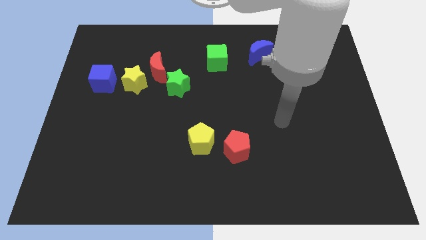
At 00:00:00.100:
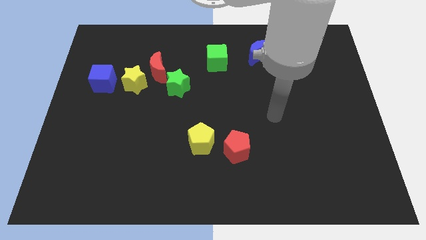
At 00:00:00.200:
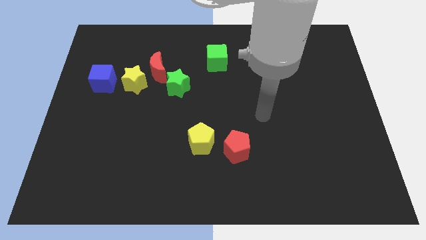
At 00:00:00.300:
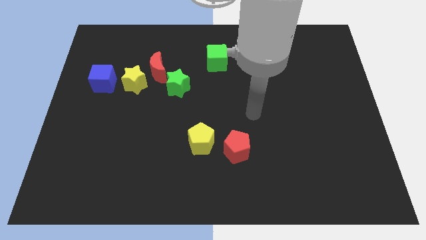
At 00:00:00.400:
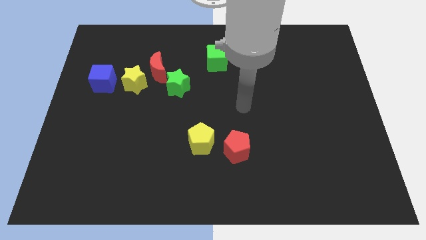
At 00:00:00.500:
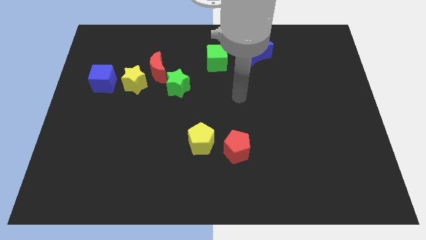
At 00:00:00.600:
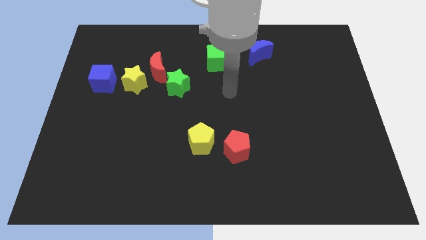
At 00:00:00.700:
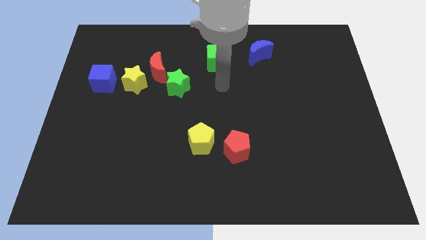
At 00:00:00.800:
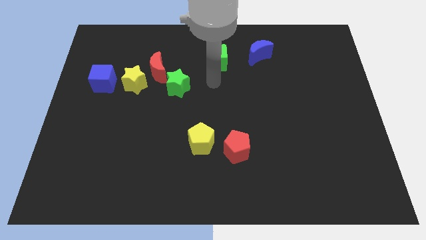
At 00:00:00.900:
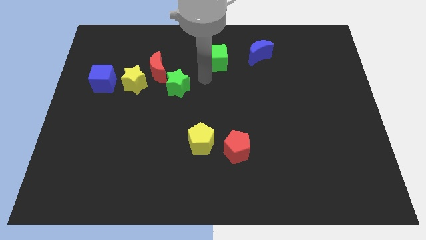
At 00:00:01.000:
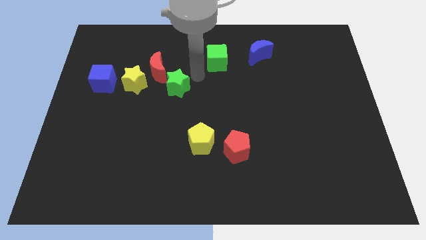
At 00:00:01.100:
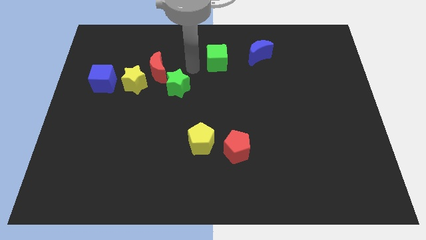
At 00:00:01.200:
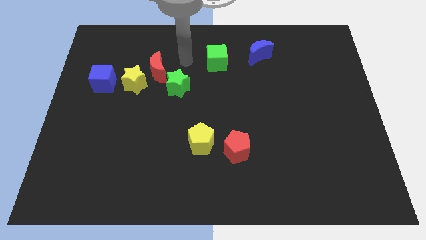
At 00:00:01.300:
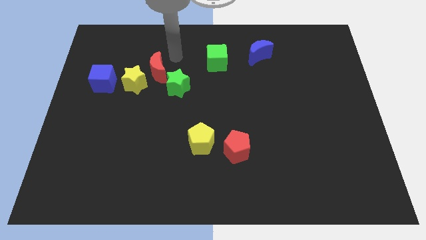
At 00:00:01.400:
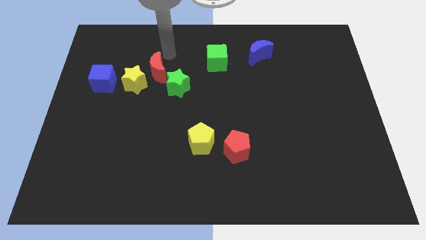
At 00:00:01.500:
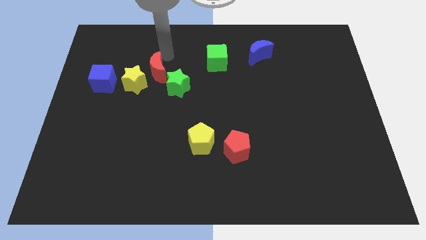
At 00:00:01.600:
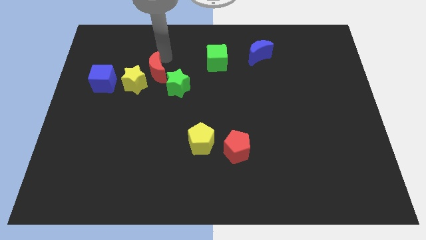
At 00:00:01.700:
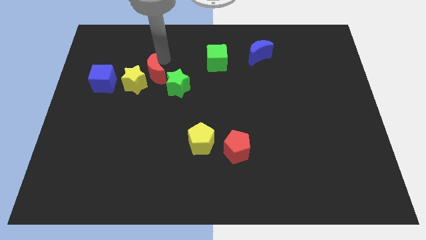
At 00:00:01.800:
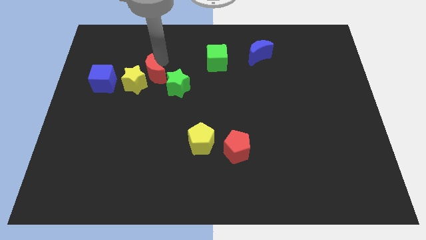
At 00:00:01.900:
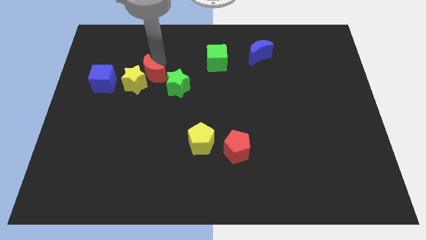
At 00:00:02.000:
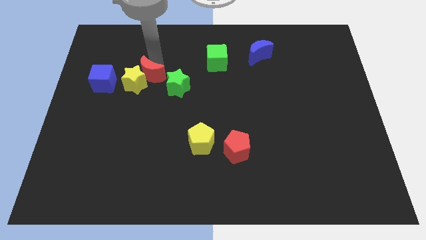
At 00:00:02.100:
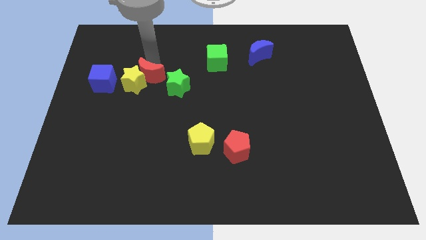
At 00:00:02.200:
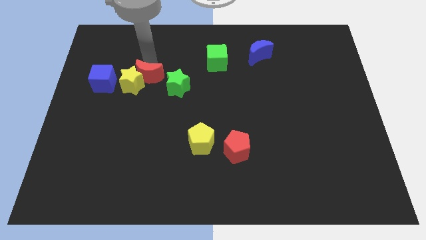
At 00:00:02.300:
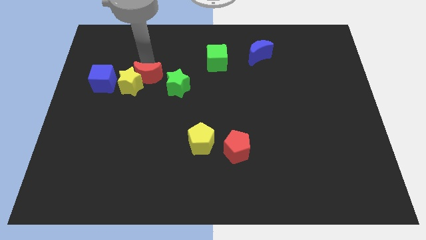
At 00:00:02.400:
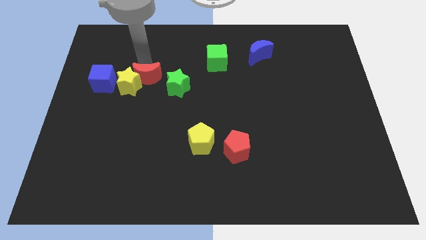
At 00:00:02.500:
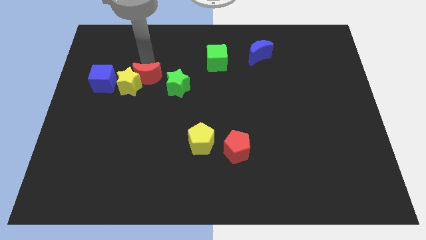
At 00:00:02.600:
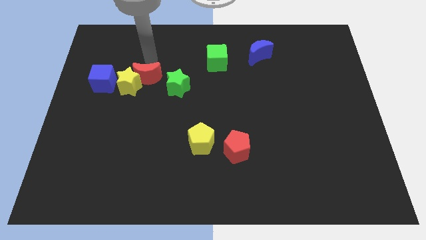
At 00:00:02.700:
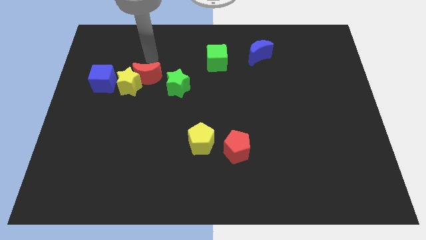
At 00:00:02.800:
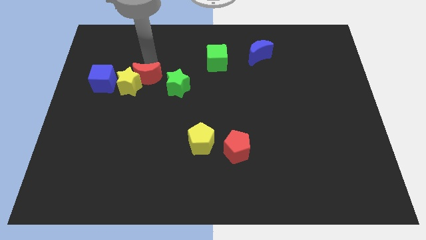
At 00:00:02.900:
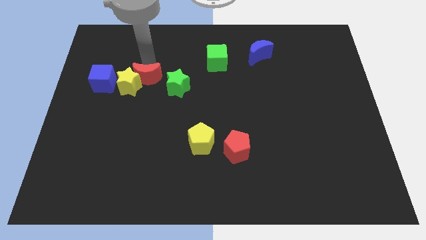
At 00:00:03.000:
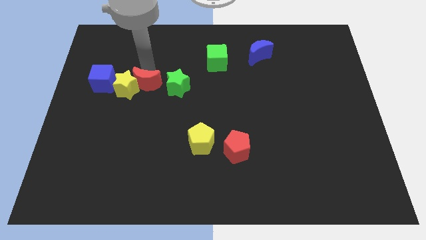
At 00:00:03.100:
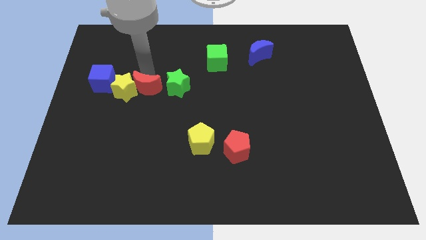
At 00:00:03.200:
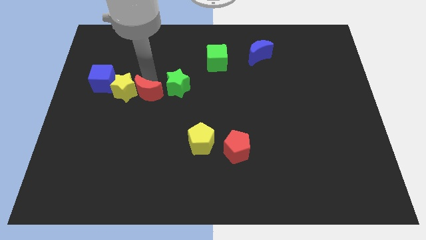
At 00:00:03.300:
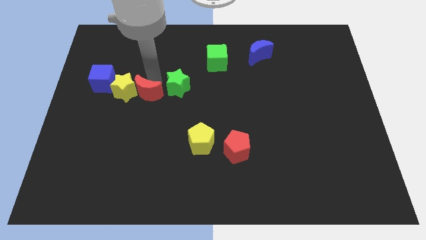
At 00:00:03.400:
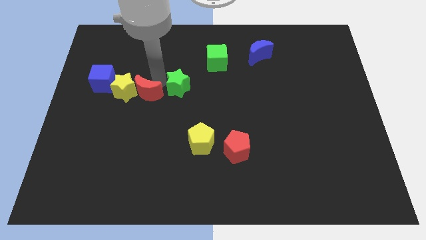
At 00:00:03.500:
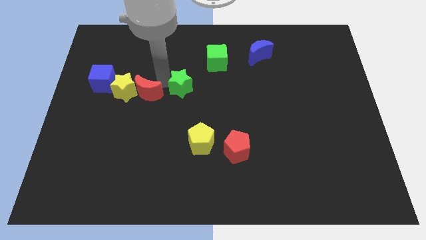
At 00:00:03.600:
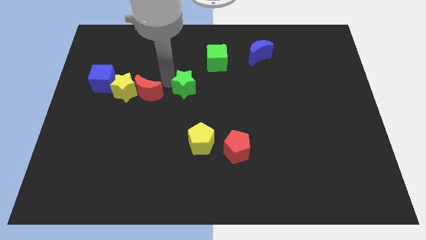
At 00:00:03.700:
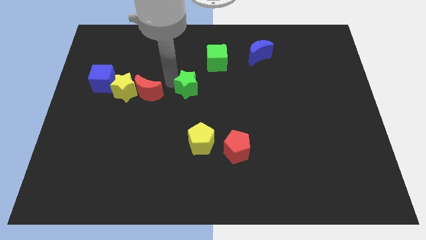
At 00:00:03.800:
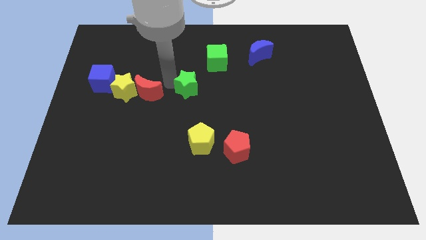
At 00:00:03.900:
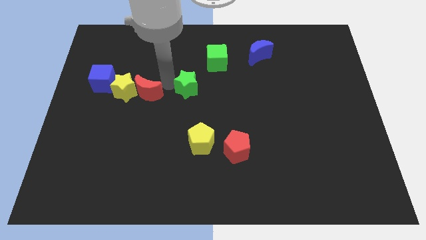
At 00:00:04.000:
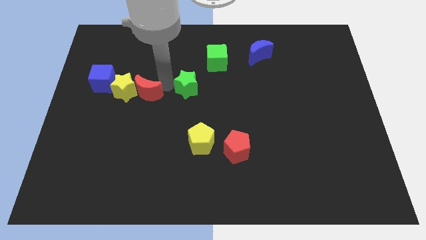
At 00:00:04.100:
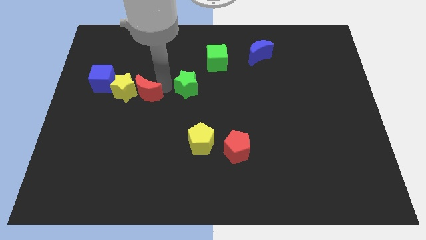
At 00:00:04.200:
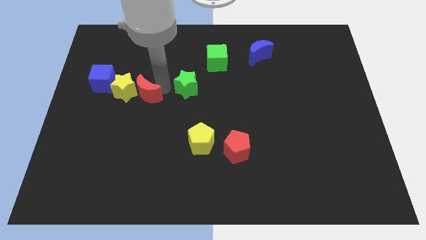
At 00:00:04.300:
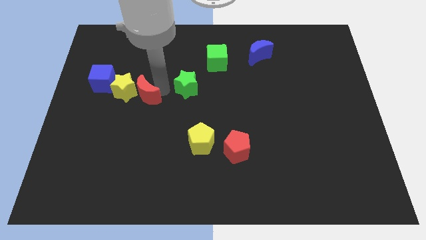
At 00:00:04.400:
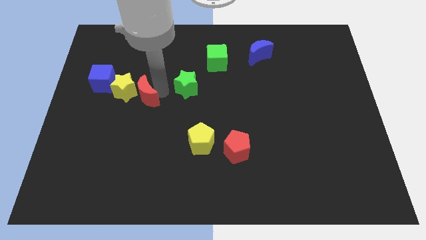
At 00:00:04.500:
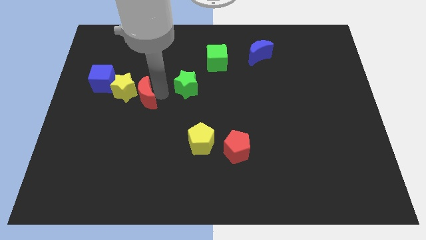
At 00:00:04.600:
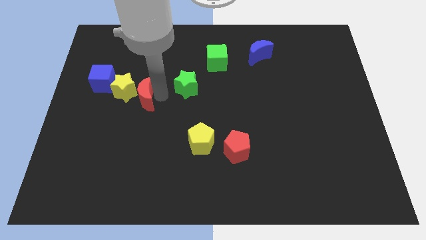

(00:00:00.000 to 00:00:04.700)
slightly move the red moon downwards and then left

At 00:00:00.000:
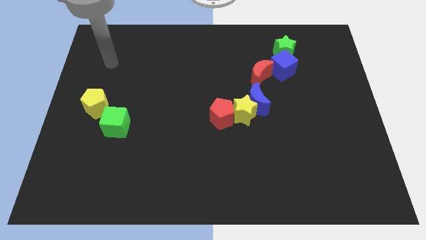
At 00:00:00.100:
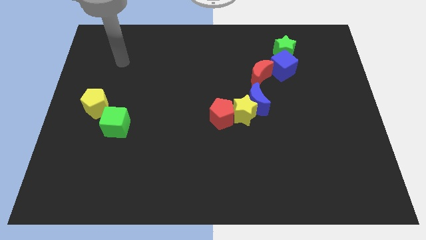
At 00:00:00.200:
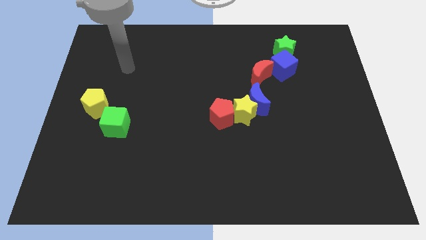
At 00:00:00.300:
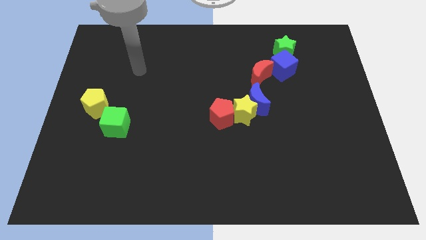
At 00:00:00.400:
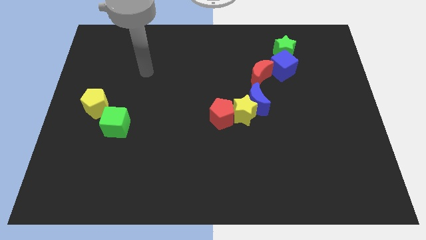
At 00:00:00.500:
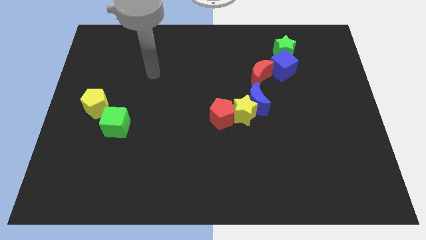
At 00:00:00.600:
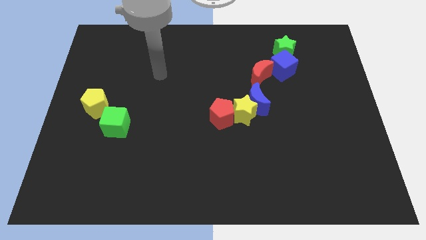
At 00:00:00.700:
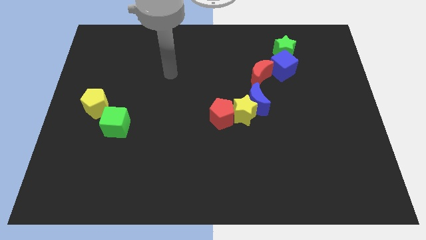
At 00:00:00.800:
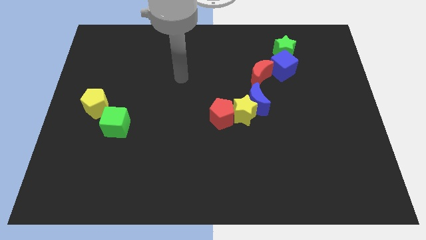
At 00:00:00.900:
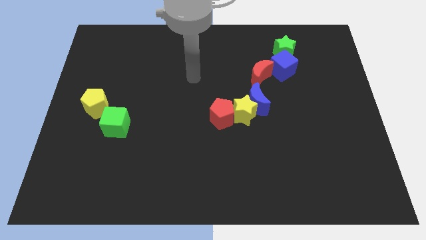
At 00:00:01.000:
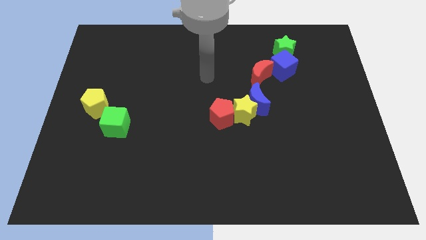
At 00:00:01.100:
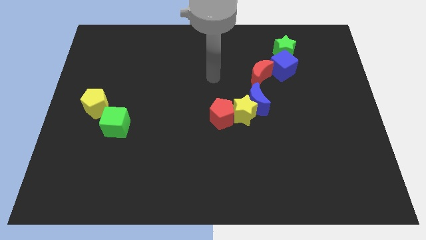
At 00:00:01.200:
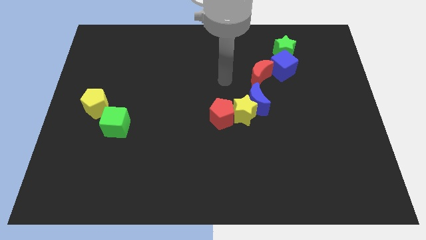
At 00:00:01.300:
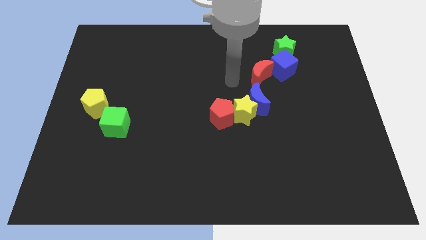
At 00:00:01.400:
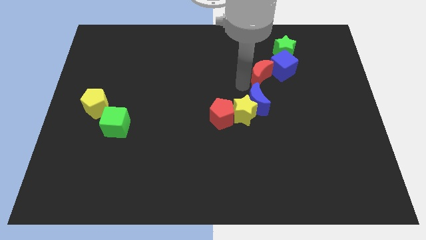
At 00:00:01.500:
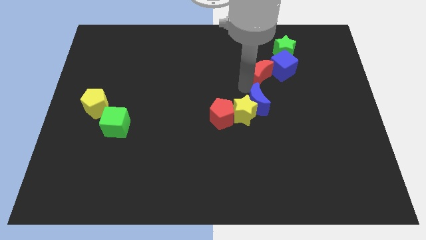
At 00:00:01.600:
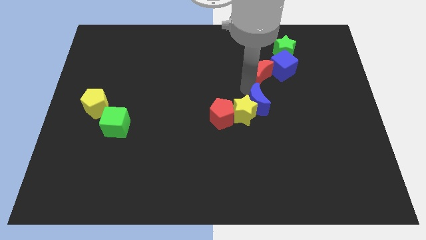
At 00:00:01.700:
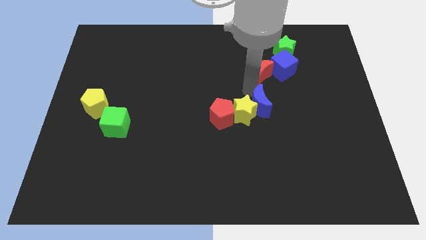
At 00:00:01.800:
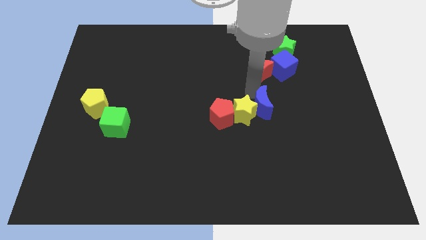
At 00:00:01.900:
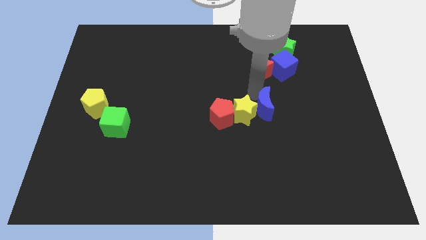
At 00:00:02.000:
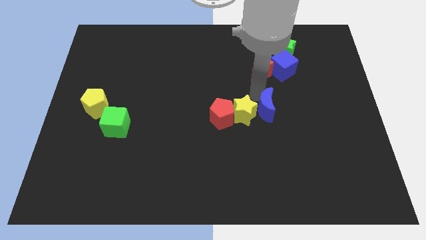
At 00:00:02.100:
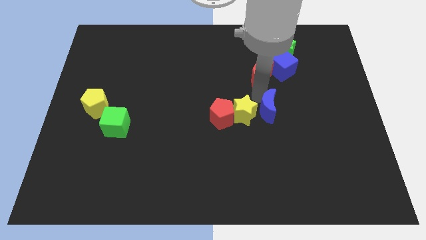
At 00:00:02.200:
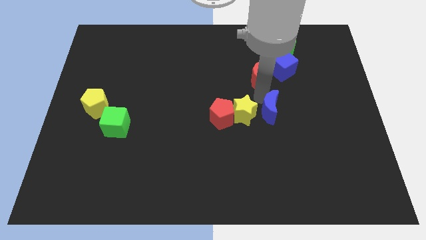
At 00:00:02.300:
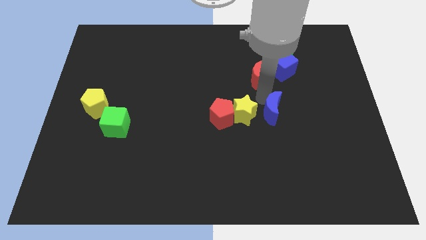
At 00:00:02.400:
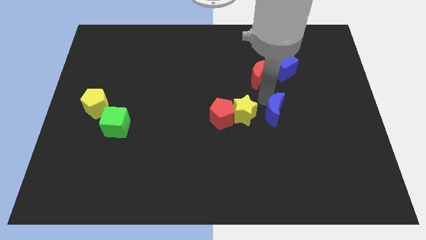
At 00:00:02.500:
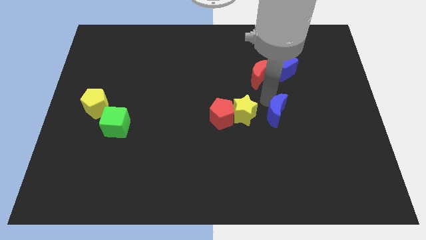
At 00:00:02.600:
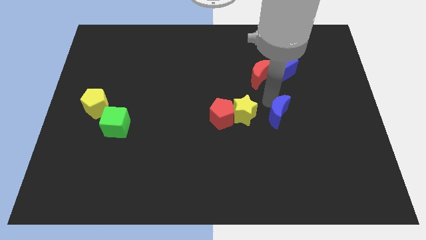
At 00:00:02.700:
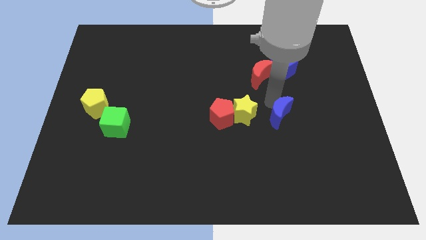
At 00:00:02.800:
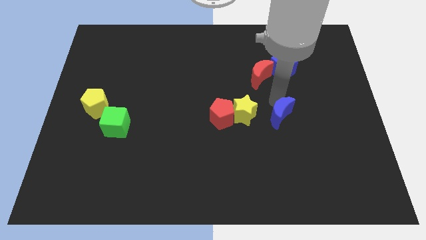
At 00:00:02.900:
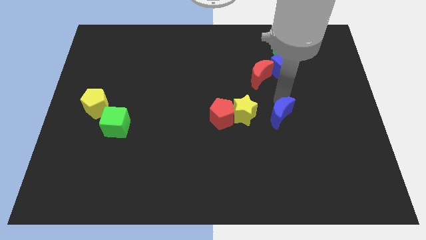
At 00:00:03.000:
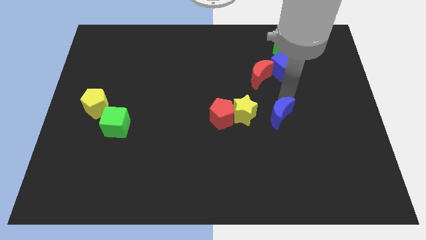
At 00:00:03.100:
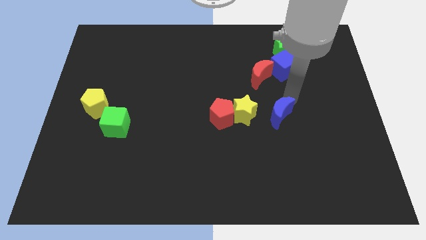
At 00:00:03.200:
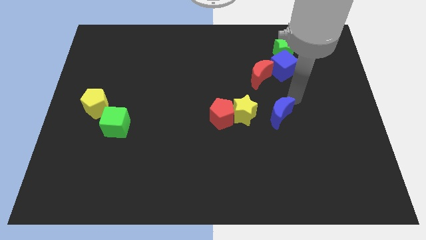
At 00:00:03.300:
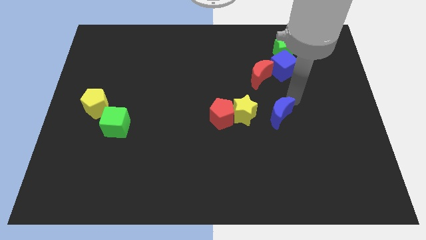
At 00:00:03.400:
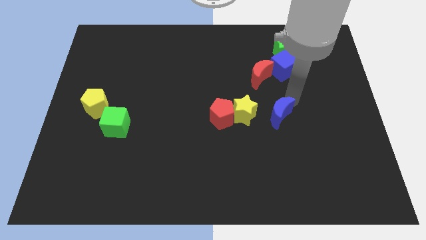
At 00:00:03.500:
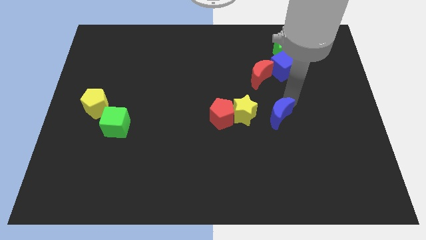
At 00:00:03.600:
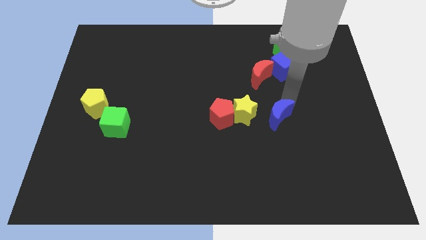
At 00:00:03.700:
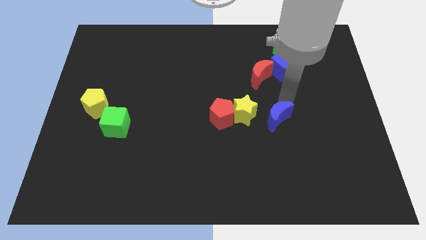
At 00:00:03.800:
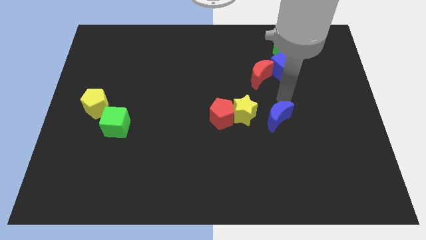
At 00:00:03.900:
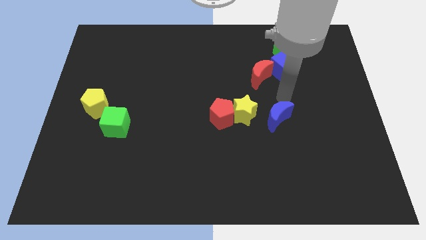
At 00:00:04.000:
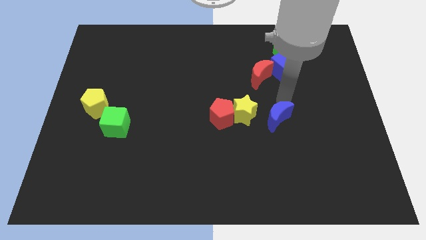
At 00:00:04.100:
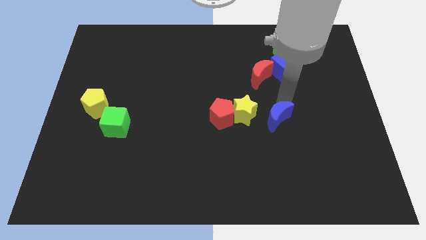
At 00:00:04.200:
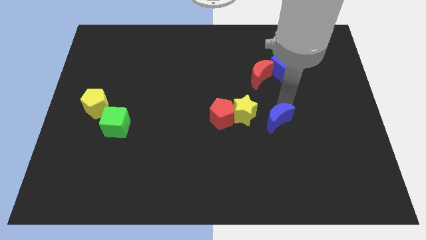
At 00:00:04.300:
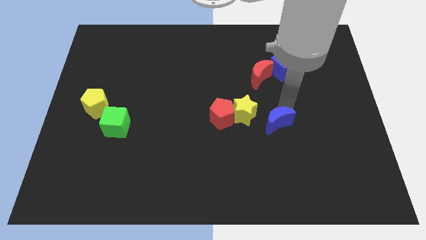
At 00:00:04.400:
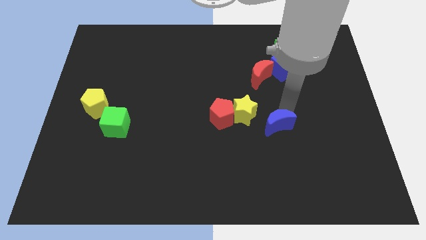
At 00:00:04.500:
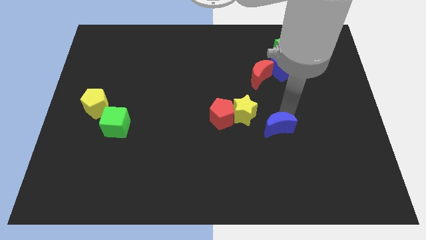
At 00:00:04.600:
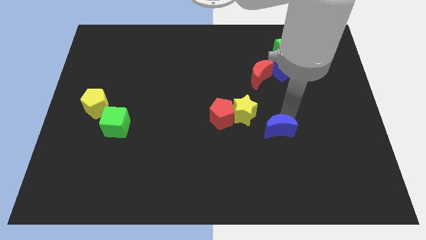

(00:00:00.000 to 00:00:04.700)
move the blue moon slightly downwards
